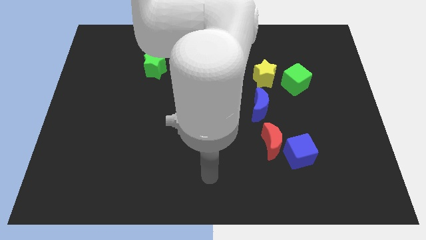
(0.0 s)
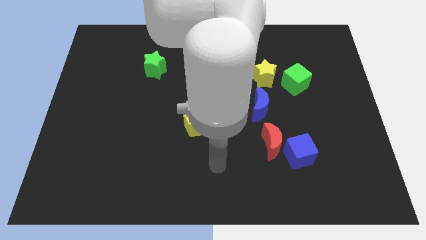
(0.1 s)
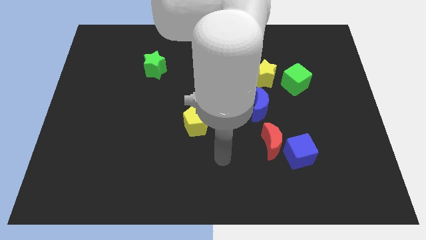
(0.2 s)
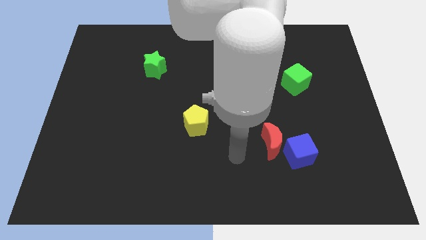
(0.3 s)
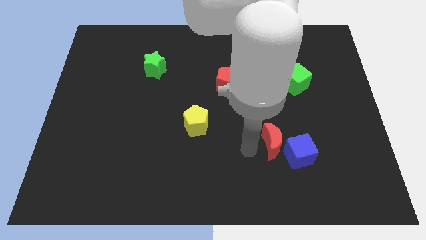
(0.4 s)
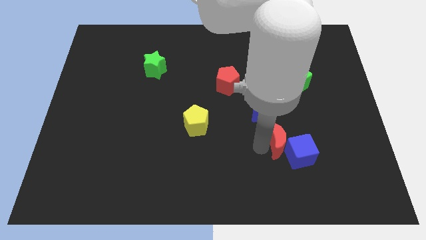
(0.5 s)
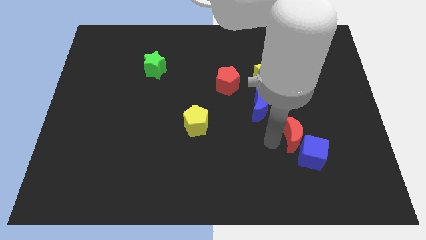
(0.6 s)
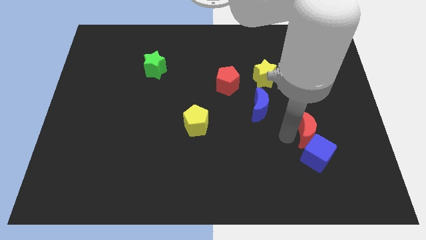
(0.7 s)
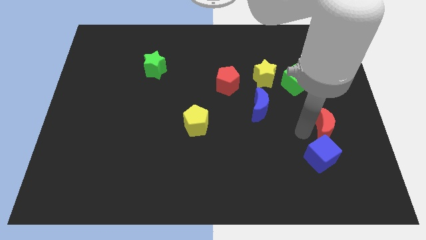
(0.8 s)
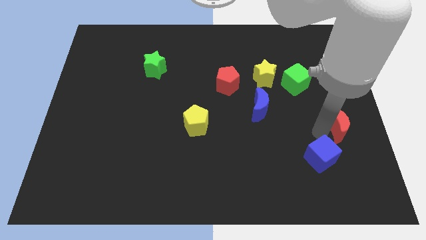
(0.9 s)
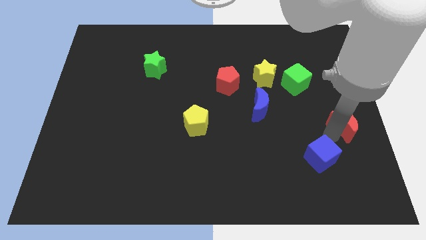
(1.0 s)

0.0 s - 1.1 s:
pull the blue cube apart from the red moon

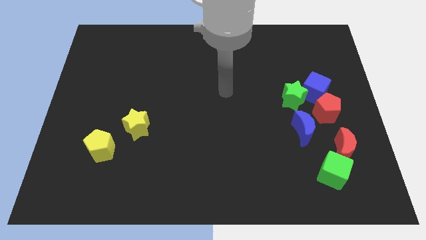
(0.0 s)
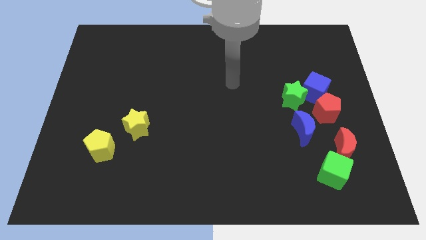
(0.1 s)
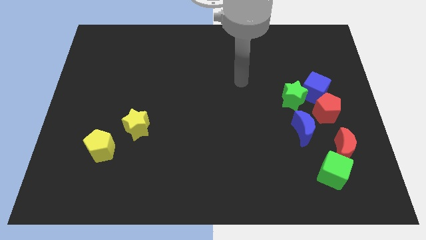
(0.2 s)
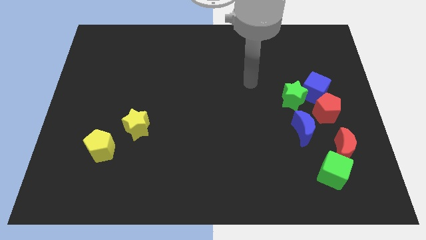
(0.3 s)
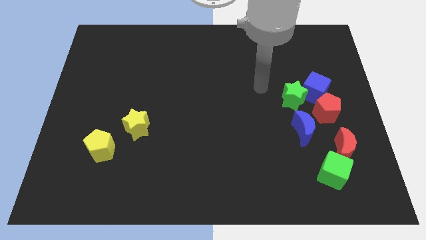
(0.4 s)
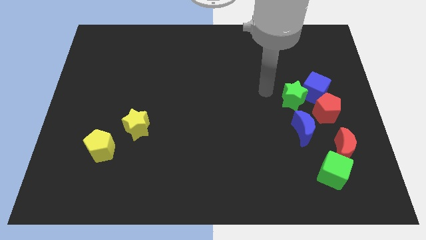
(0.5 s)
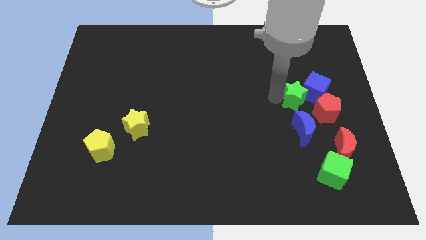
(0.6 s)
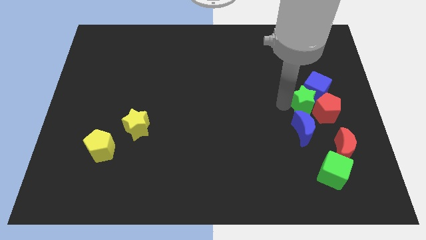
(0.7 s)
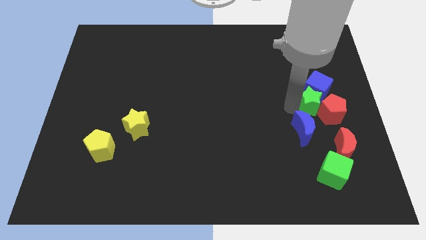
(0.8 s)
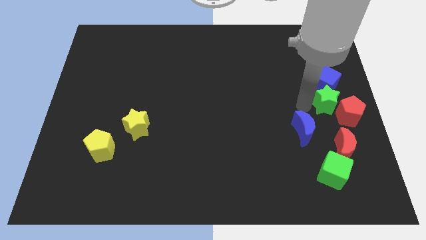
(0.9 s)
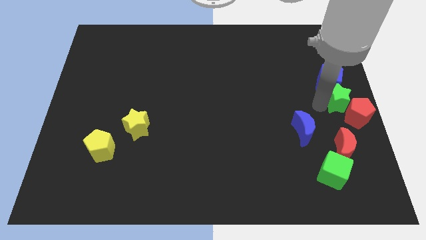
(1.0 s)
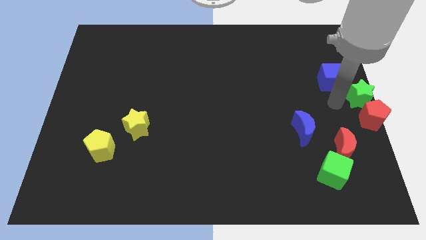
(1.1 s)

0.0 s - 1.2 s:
separate the blue cube from the green star and red pentagon

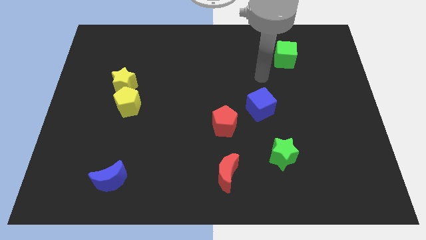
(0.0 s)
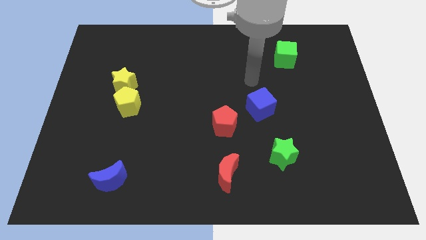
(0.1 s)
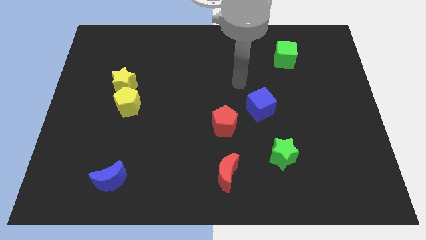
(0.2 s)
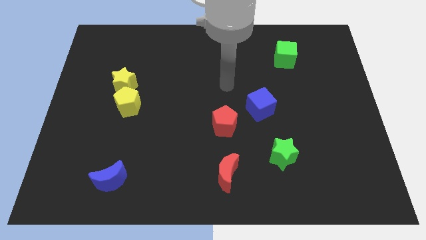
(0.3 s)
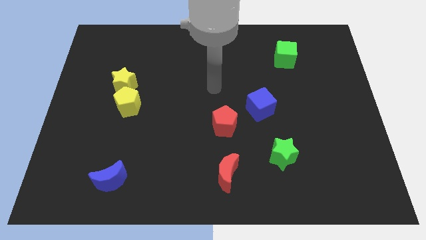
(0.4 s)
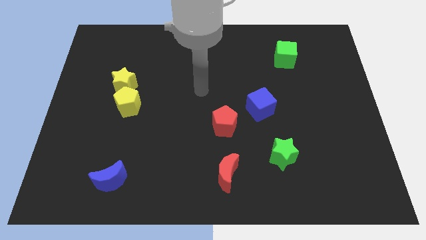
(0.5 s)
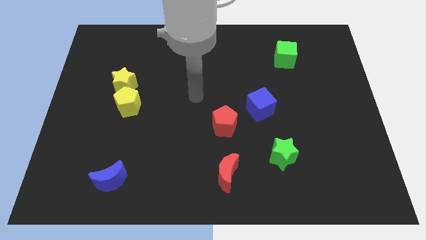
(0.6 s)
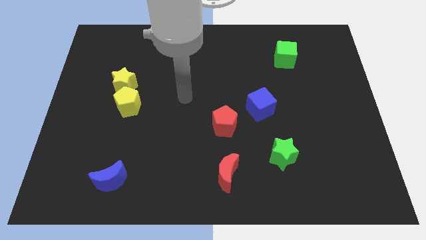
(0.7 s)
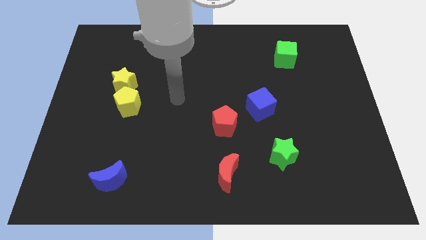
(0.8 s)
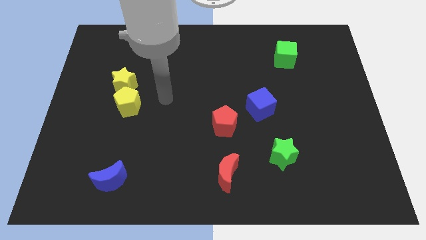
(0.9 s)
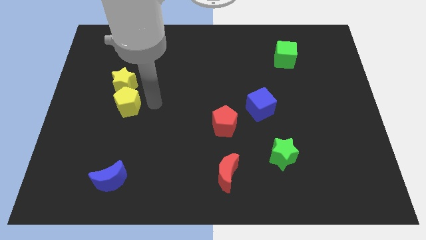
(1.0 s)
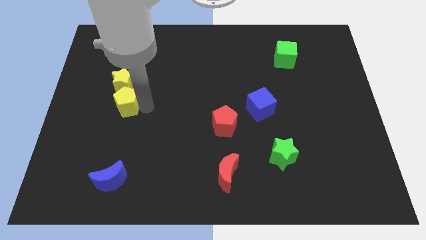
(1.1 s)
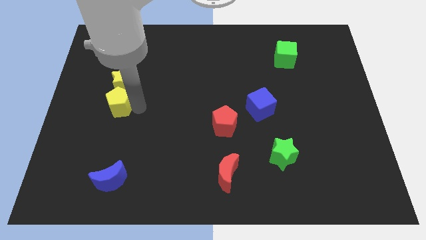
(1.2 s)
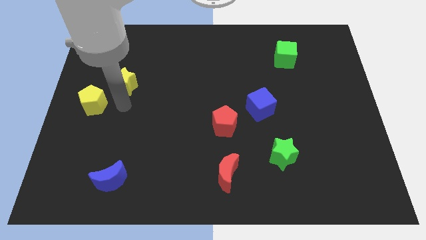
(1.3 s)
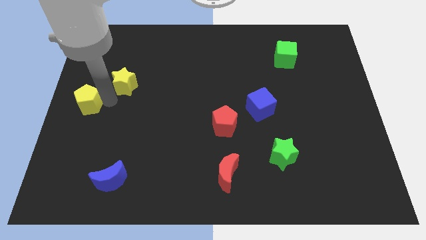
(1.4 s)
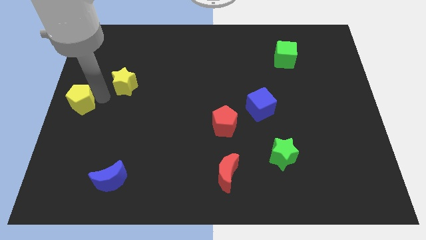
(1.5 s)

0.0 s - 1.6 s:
move the yellow star away from the yellow pentagon

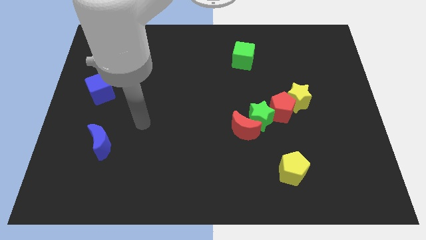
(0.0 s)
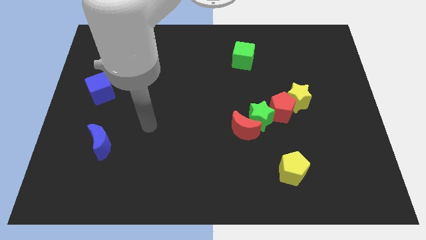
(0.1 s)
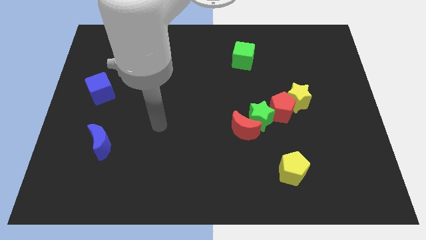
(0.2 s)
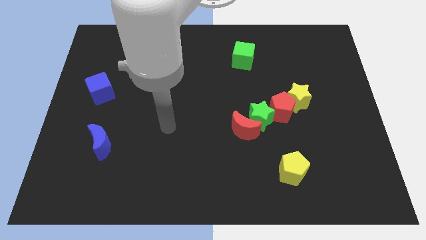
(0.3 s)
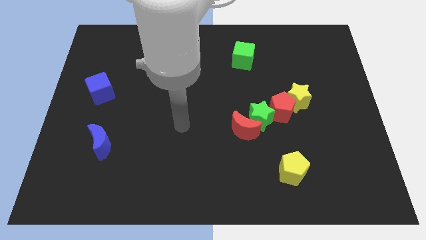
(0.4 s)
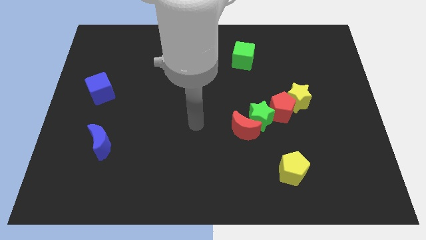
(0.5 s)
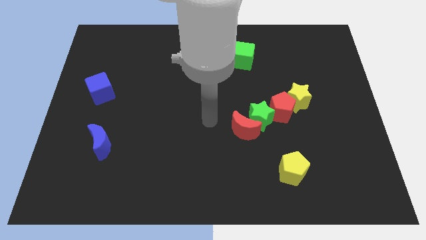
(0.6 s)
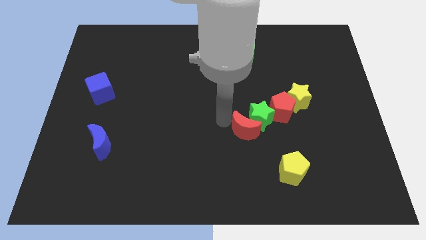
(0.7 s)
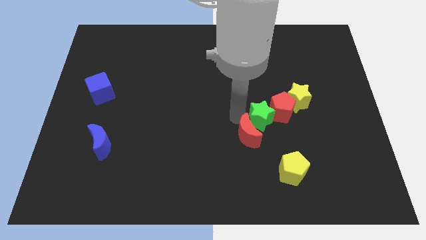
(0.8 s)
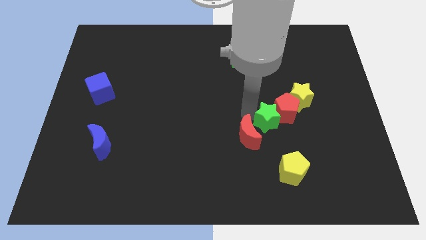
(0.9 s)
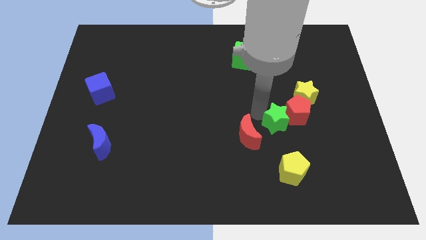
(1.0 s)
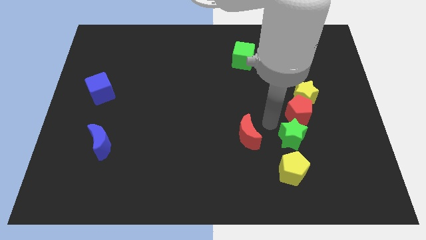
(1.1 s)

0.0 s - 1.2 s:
move the red moon away from the green star

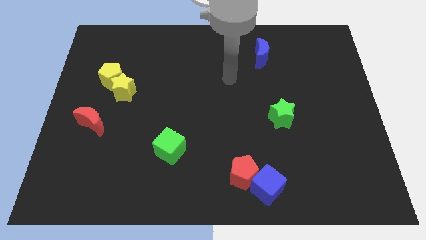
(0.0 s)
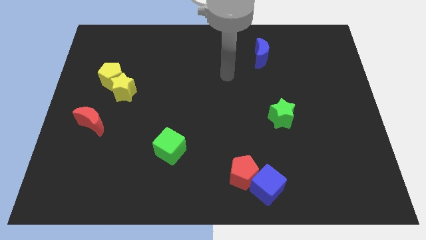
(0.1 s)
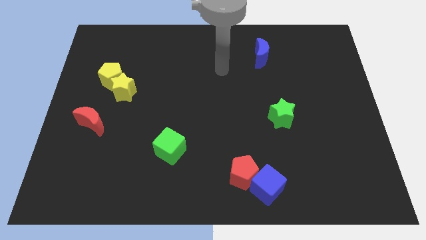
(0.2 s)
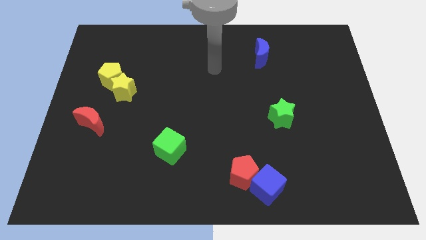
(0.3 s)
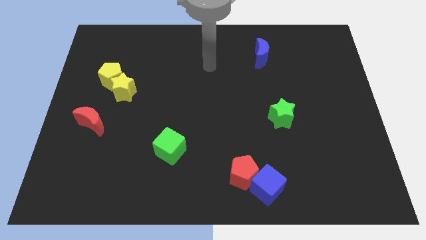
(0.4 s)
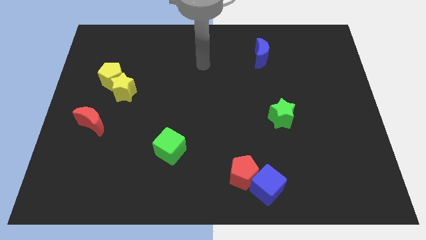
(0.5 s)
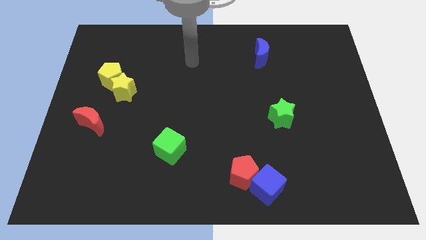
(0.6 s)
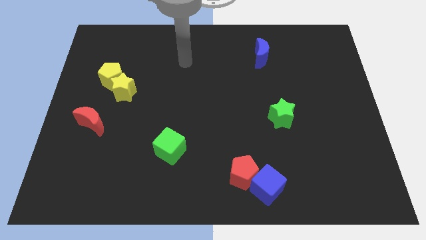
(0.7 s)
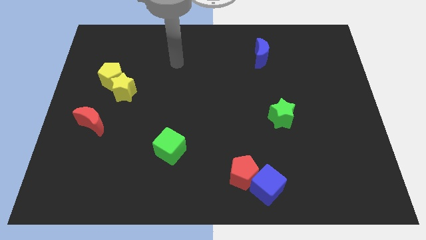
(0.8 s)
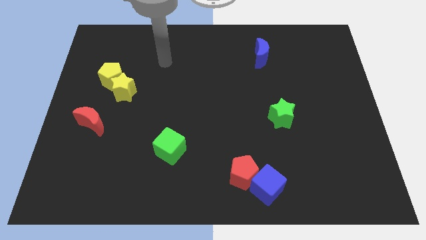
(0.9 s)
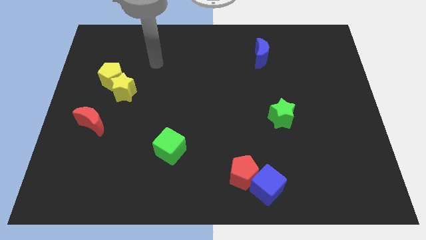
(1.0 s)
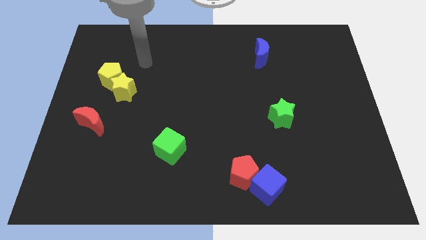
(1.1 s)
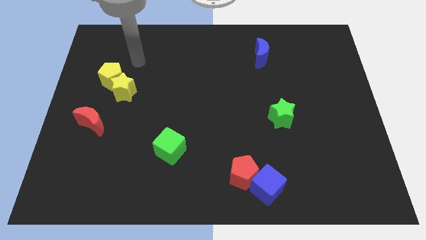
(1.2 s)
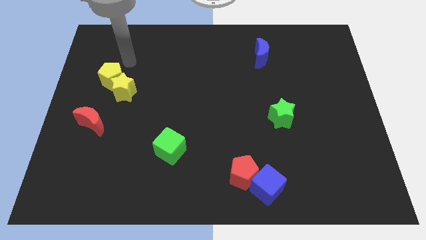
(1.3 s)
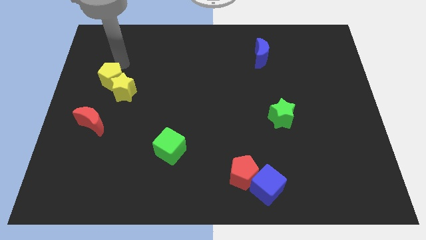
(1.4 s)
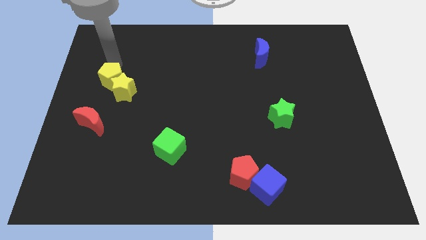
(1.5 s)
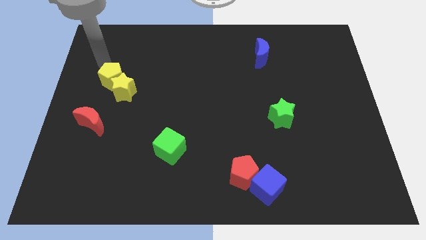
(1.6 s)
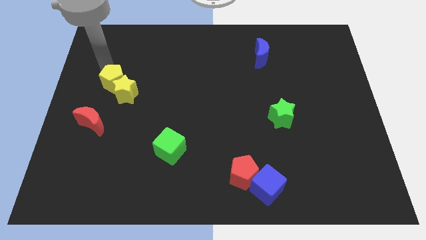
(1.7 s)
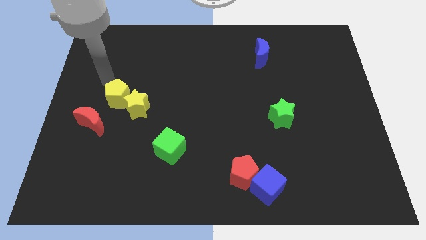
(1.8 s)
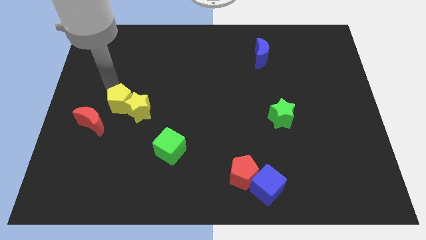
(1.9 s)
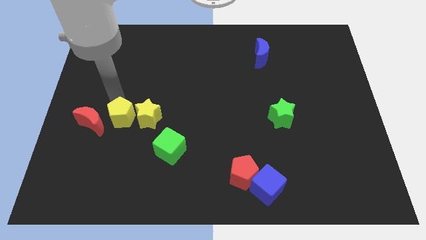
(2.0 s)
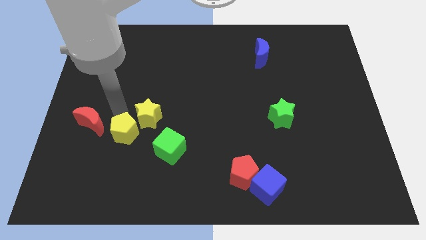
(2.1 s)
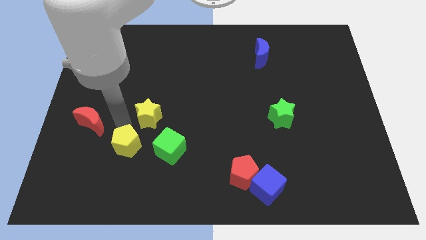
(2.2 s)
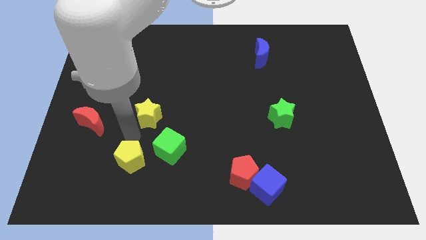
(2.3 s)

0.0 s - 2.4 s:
pull the yellow star apart from the yellow pentagon

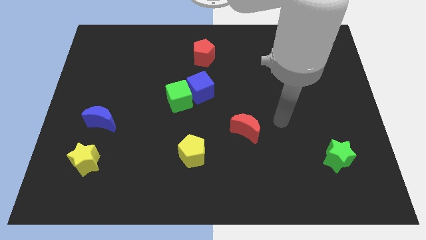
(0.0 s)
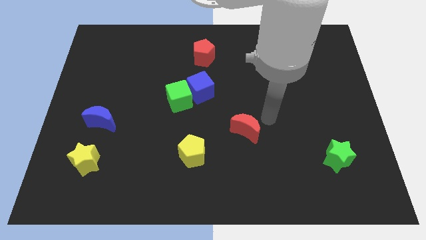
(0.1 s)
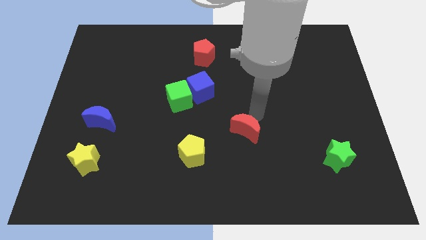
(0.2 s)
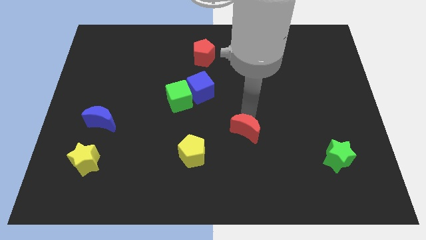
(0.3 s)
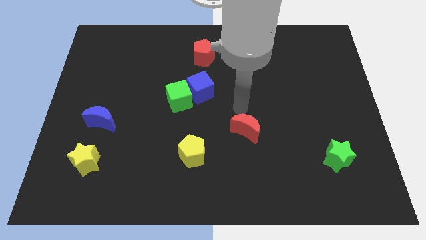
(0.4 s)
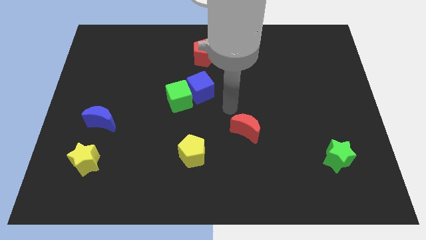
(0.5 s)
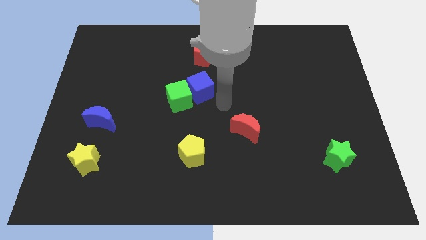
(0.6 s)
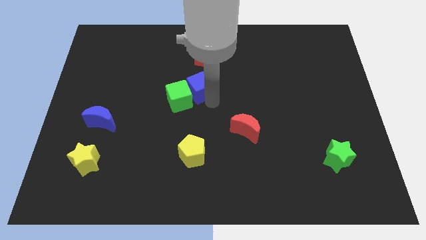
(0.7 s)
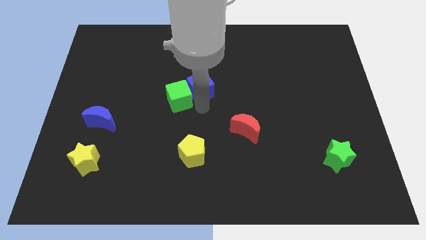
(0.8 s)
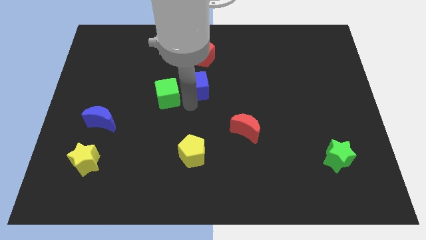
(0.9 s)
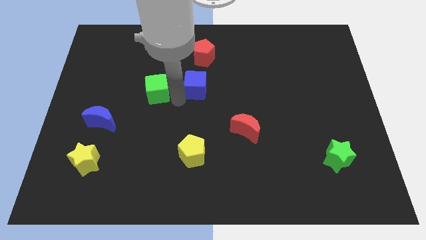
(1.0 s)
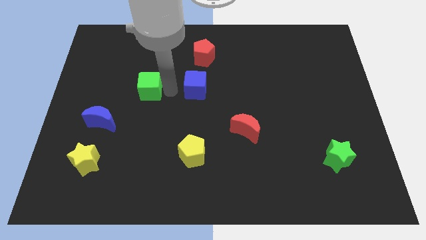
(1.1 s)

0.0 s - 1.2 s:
pull the blue cube apart from the green cube

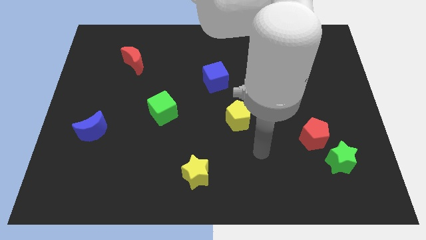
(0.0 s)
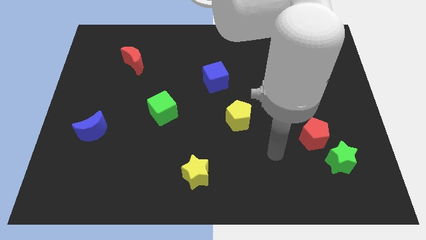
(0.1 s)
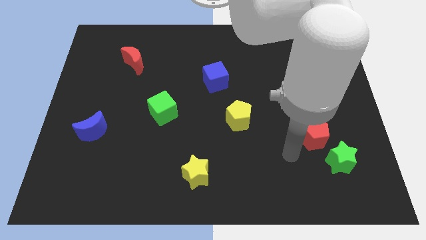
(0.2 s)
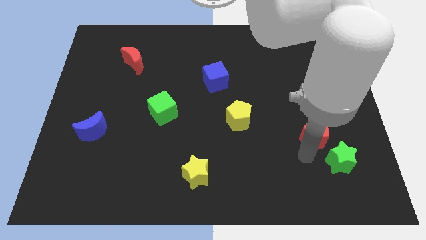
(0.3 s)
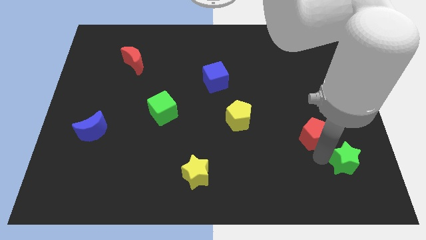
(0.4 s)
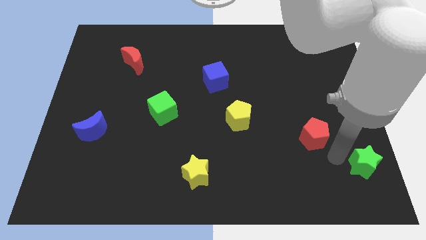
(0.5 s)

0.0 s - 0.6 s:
move the red pentagon away from the green star
